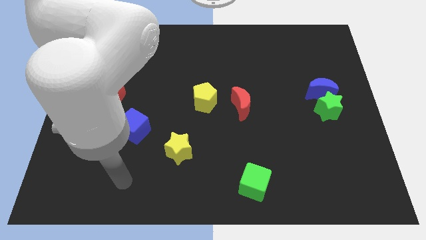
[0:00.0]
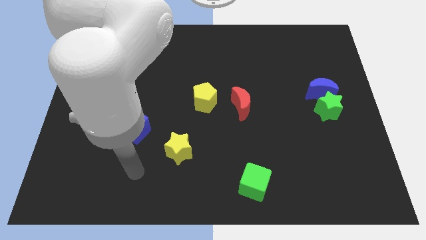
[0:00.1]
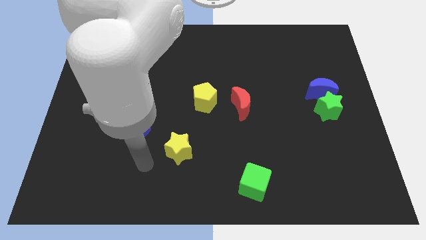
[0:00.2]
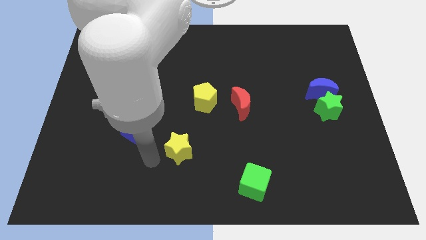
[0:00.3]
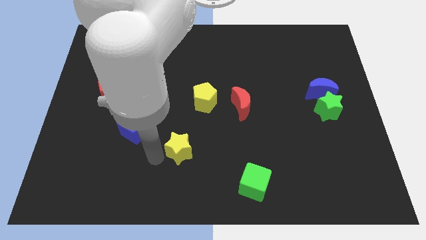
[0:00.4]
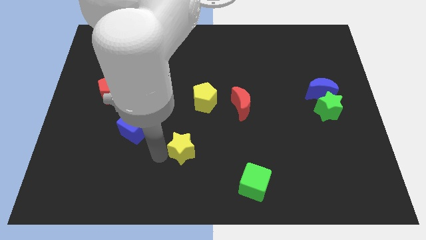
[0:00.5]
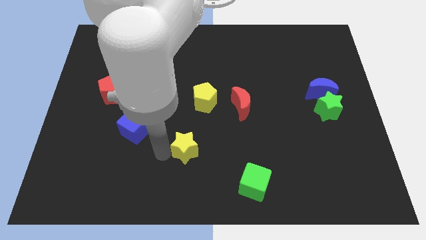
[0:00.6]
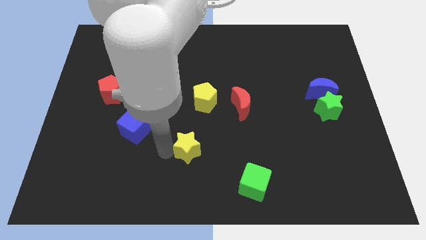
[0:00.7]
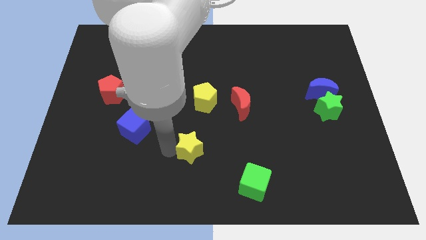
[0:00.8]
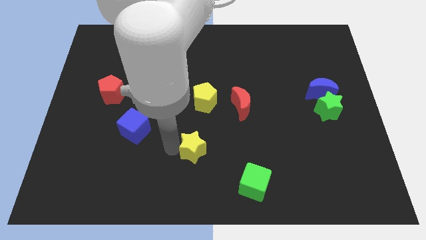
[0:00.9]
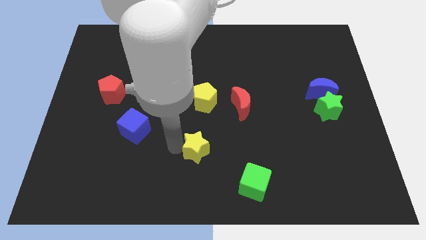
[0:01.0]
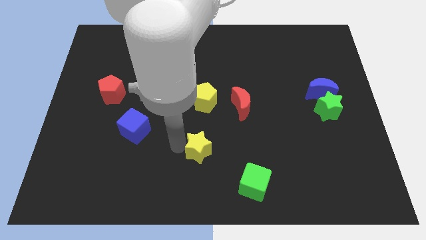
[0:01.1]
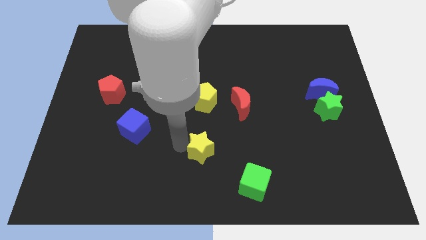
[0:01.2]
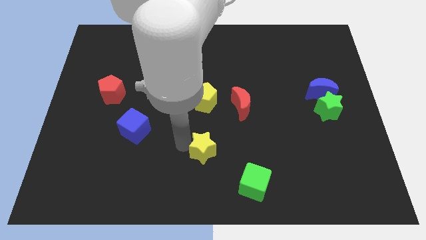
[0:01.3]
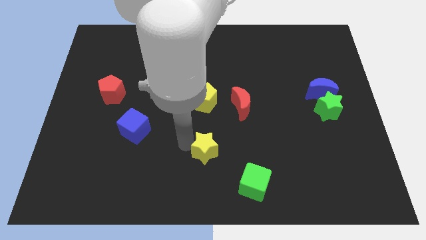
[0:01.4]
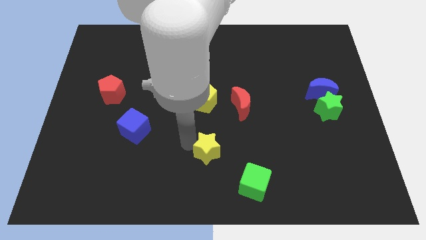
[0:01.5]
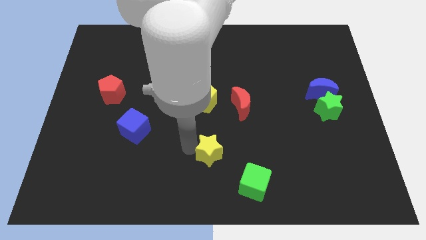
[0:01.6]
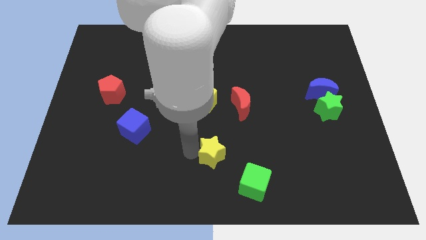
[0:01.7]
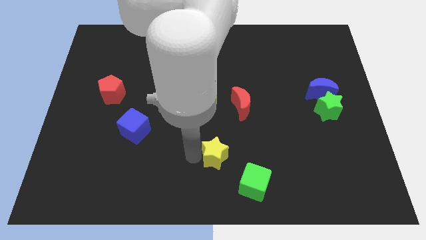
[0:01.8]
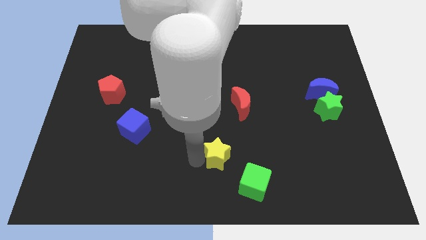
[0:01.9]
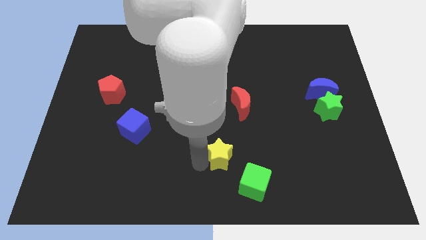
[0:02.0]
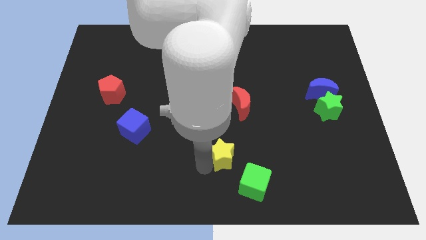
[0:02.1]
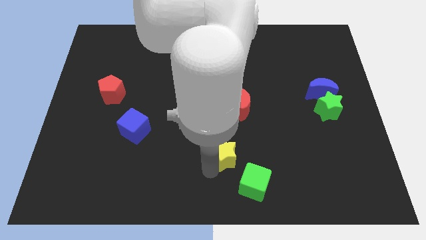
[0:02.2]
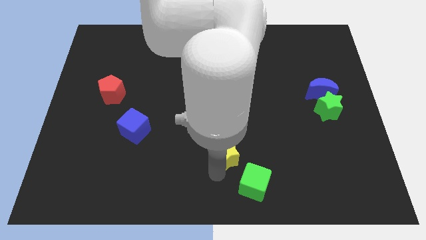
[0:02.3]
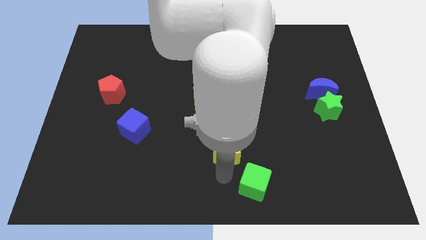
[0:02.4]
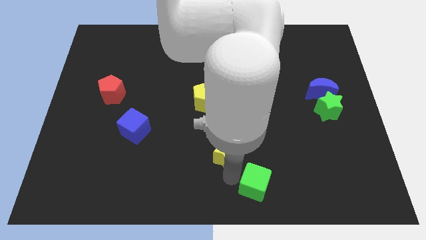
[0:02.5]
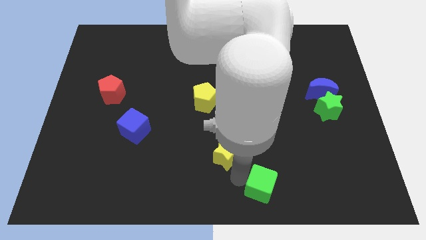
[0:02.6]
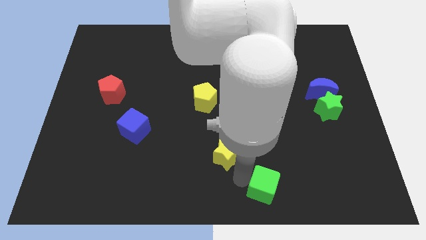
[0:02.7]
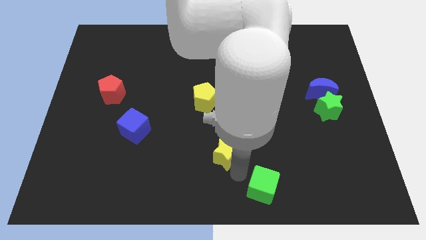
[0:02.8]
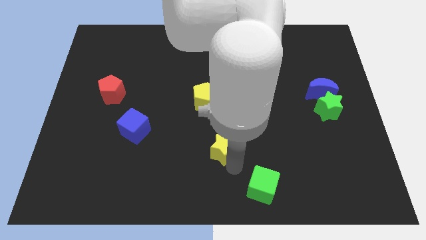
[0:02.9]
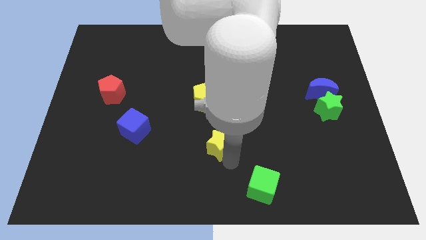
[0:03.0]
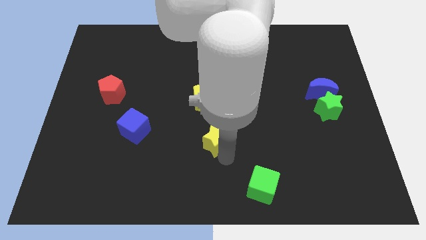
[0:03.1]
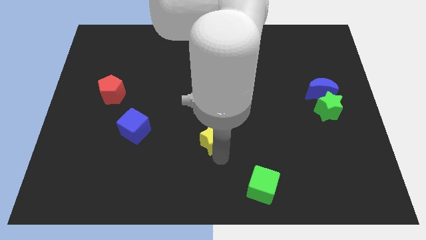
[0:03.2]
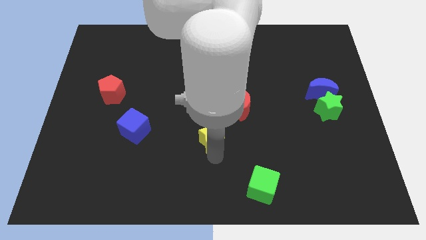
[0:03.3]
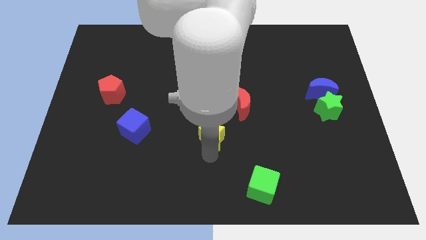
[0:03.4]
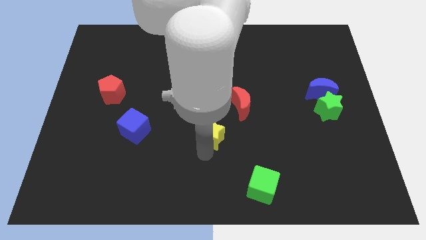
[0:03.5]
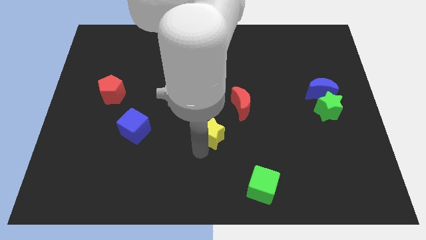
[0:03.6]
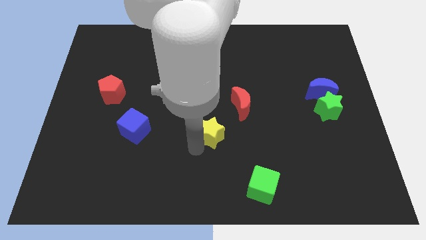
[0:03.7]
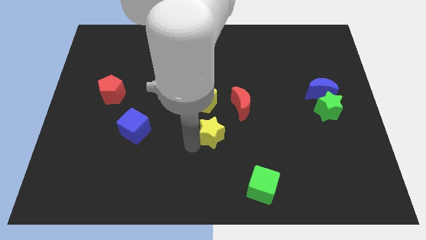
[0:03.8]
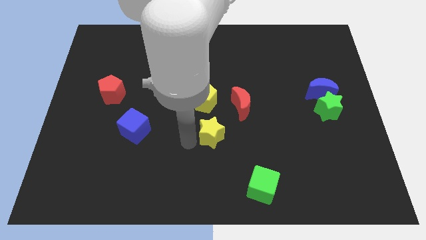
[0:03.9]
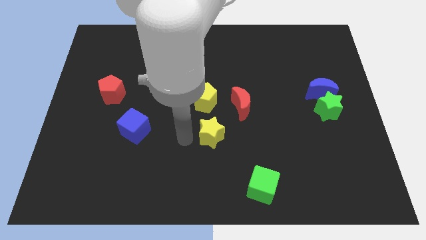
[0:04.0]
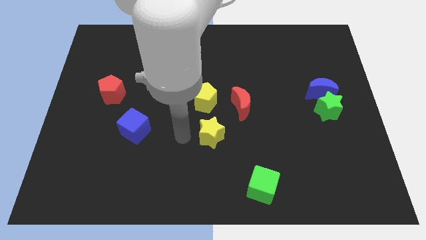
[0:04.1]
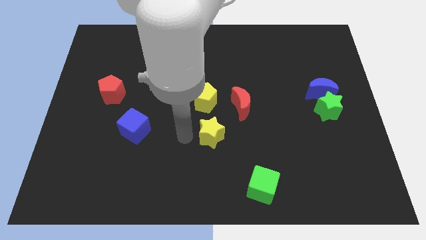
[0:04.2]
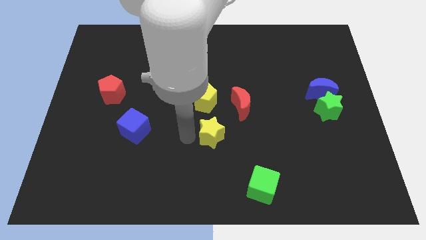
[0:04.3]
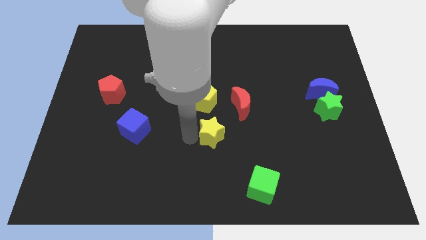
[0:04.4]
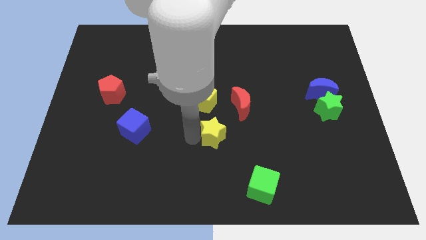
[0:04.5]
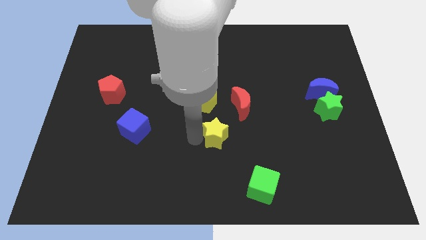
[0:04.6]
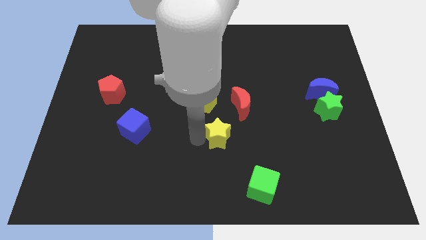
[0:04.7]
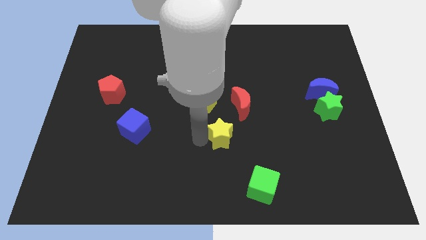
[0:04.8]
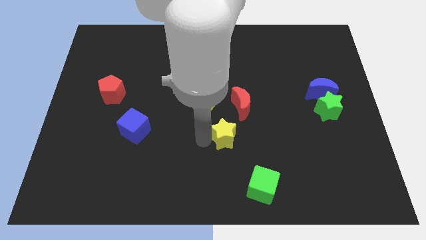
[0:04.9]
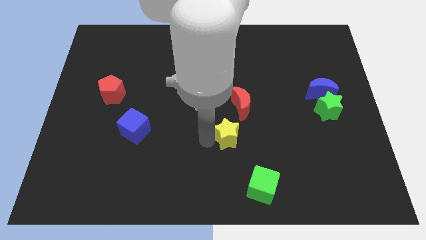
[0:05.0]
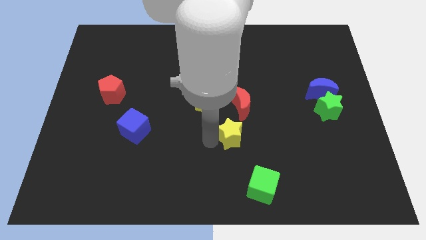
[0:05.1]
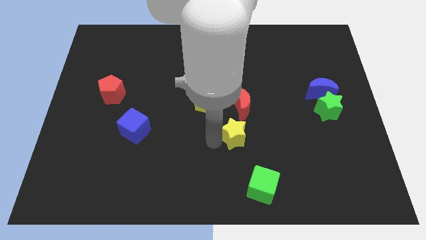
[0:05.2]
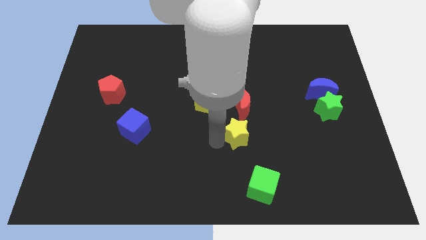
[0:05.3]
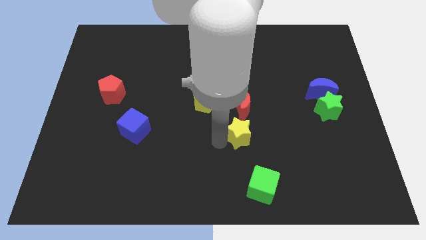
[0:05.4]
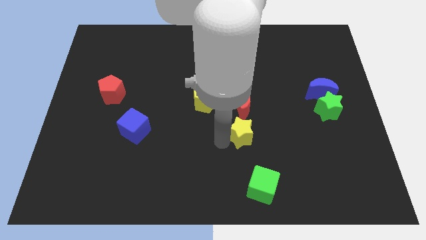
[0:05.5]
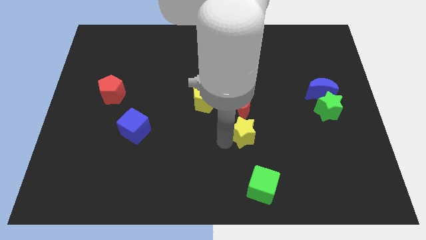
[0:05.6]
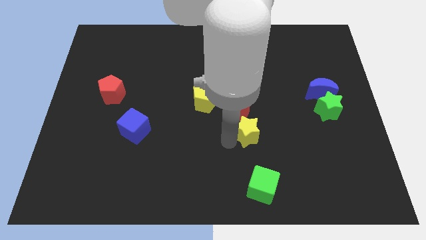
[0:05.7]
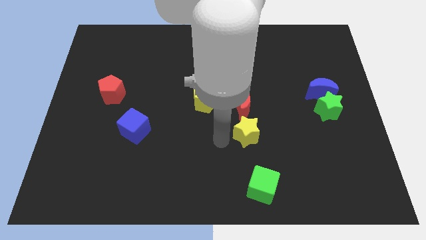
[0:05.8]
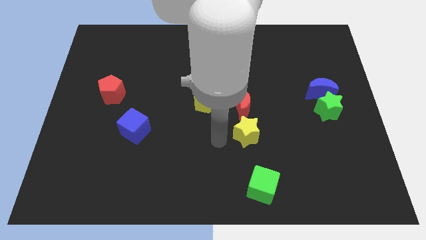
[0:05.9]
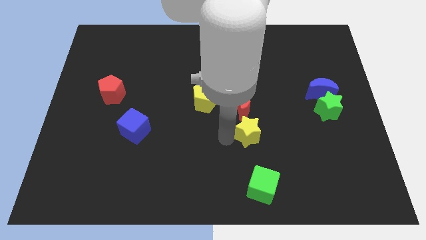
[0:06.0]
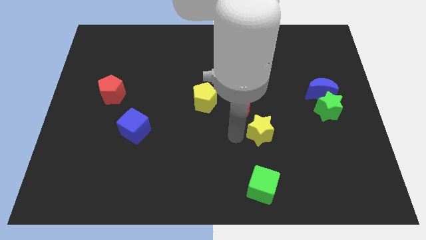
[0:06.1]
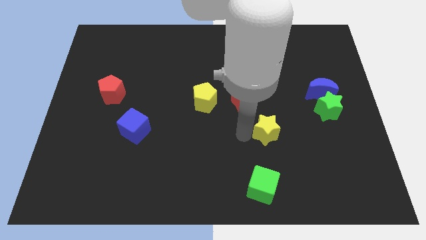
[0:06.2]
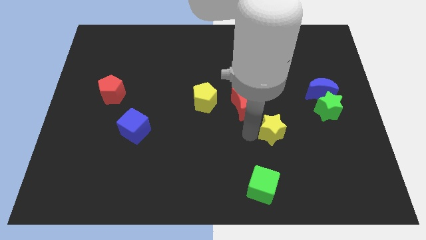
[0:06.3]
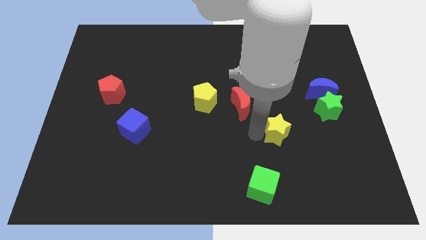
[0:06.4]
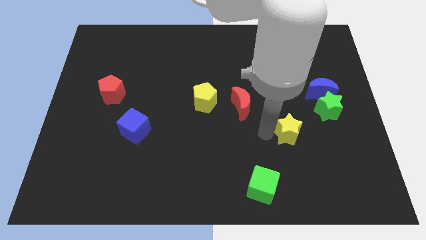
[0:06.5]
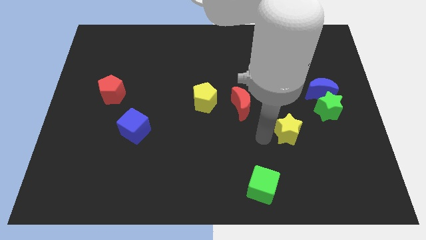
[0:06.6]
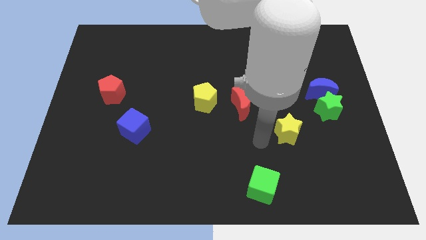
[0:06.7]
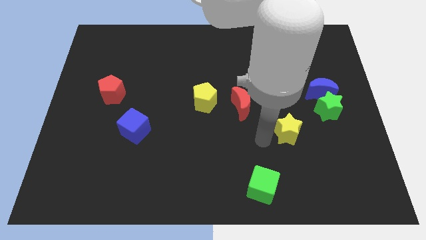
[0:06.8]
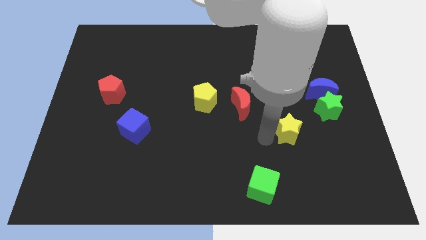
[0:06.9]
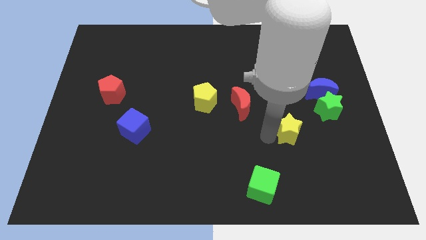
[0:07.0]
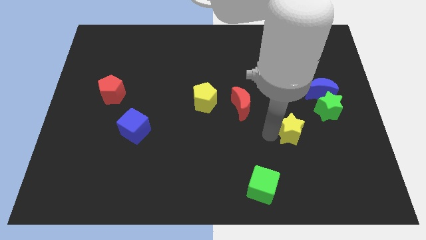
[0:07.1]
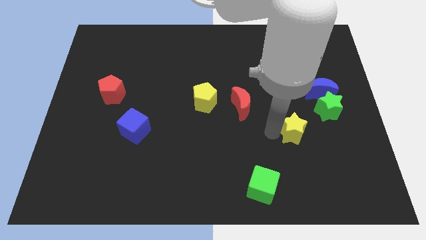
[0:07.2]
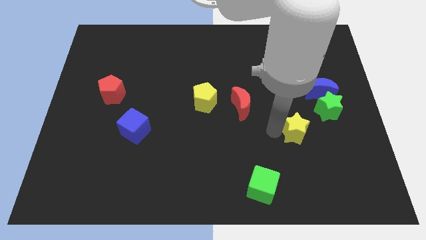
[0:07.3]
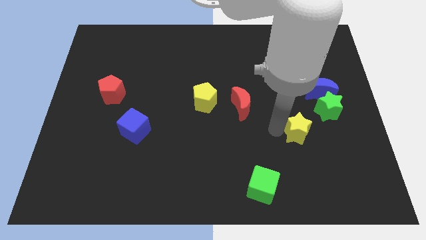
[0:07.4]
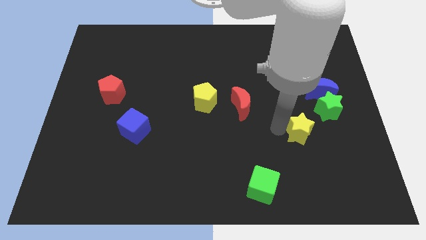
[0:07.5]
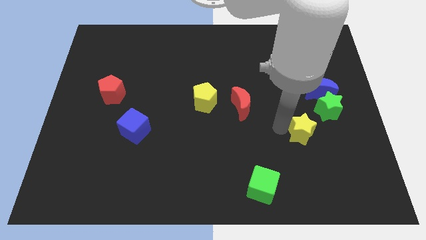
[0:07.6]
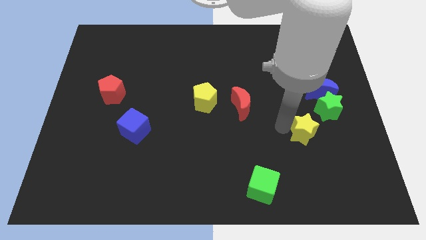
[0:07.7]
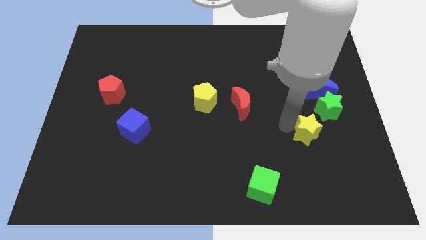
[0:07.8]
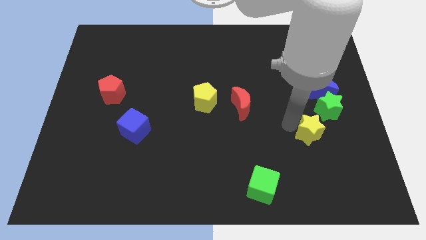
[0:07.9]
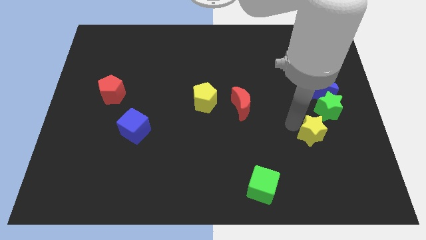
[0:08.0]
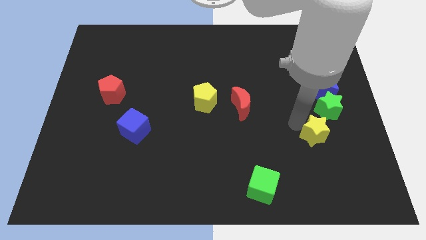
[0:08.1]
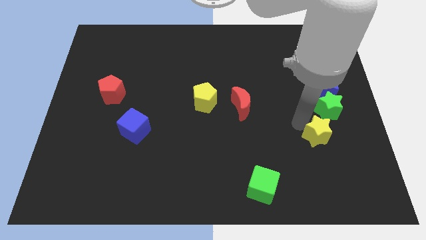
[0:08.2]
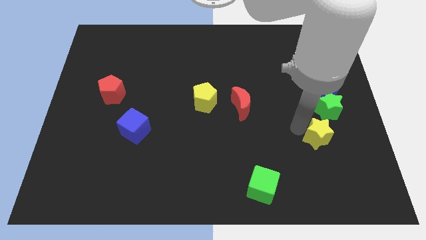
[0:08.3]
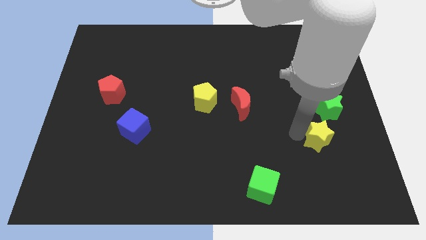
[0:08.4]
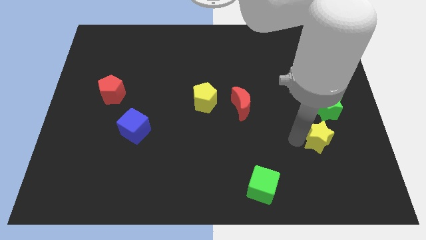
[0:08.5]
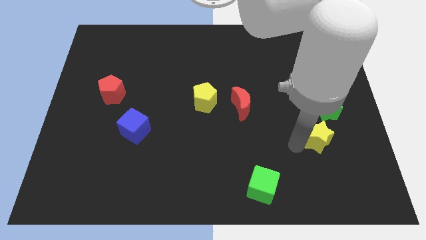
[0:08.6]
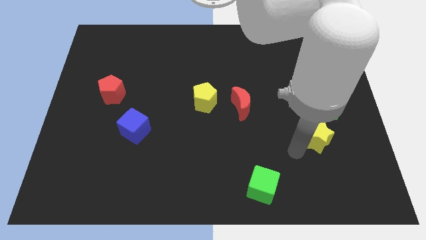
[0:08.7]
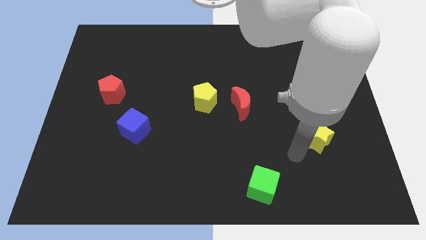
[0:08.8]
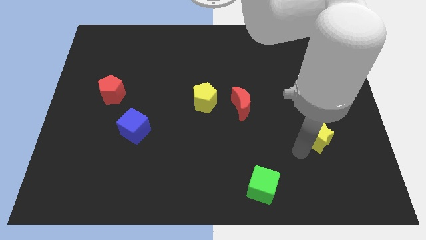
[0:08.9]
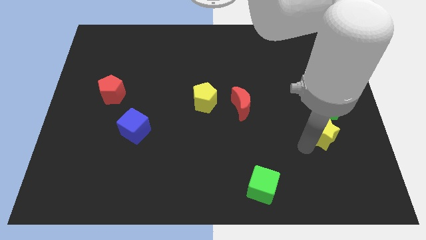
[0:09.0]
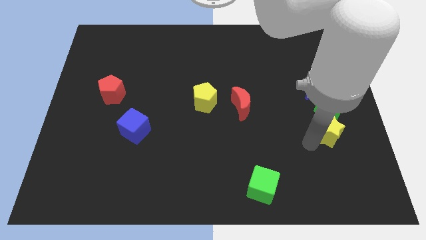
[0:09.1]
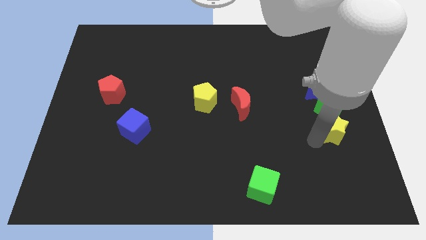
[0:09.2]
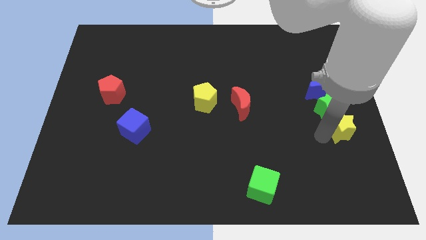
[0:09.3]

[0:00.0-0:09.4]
push the yellow star to the right side of the board
